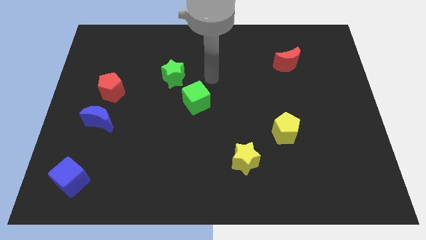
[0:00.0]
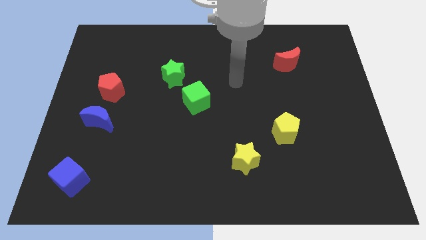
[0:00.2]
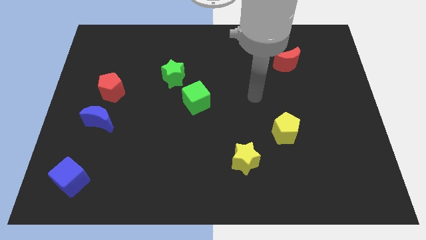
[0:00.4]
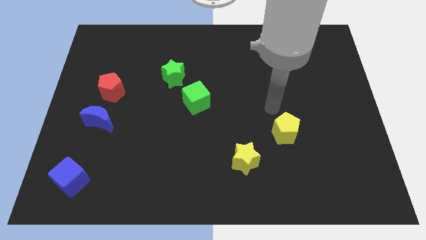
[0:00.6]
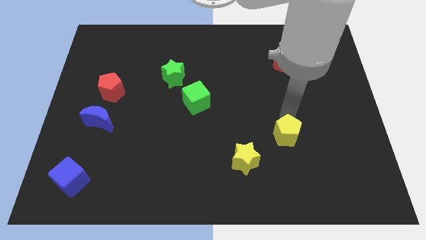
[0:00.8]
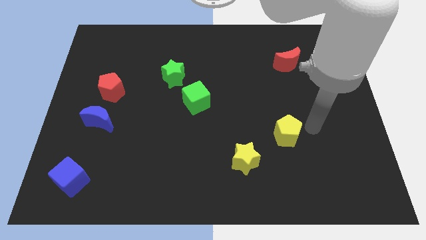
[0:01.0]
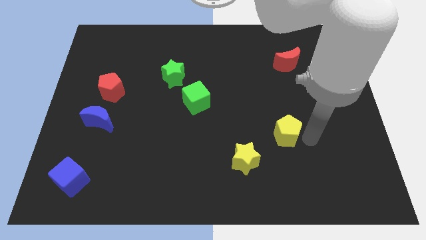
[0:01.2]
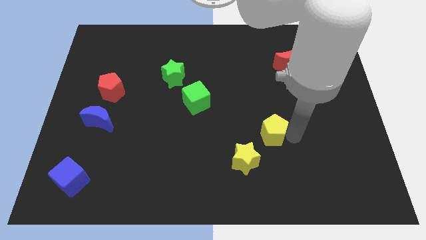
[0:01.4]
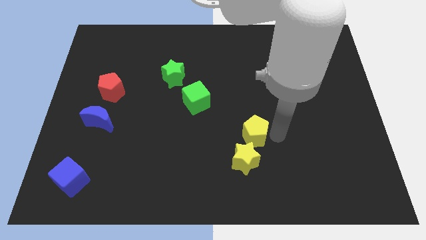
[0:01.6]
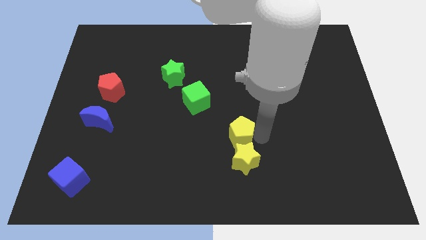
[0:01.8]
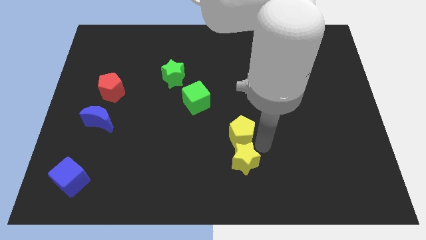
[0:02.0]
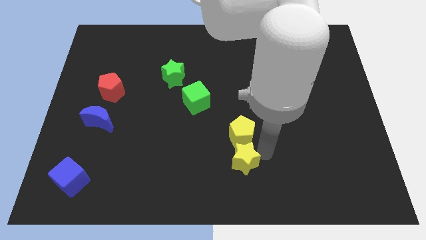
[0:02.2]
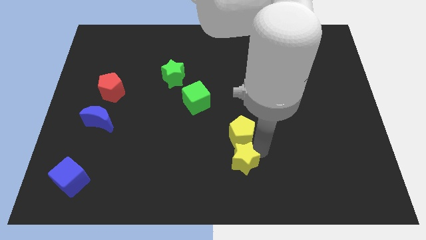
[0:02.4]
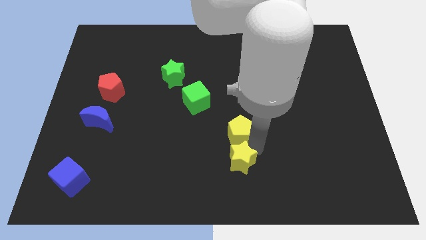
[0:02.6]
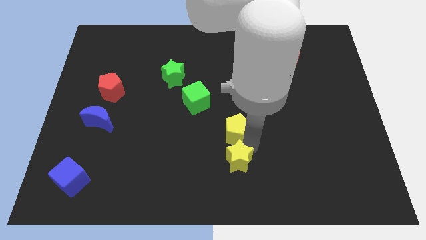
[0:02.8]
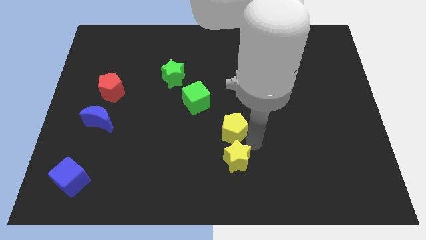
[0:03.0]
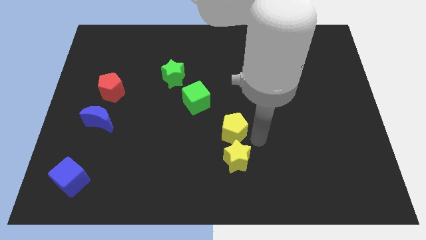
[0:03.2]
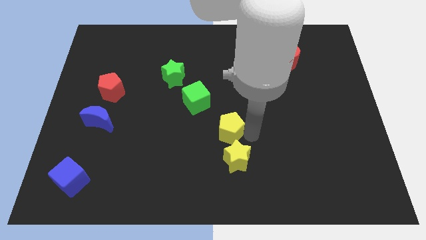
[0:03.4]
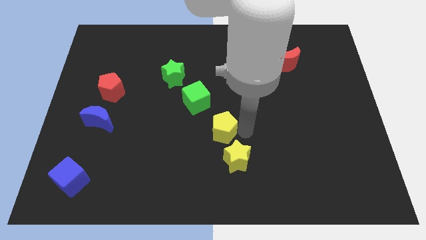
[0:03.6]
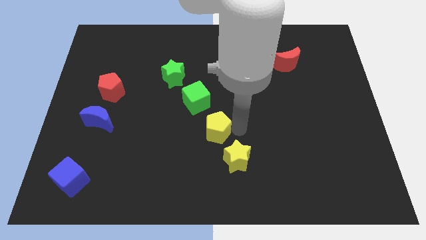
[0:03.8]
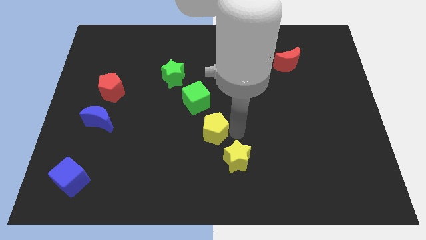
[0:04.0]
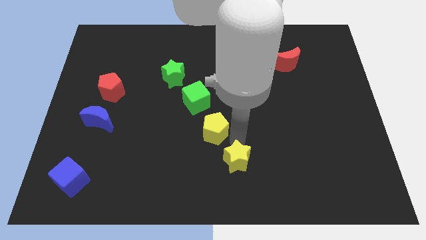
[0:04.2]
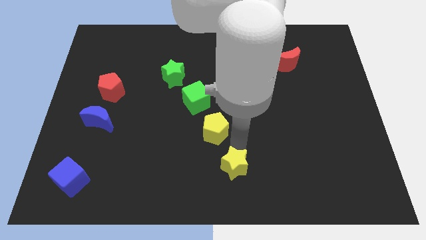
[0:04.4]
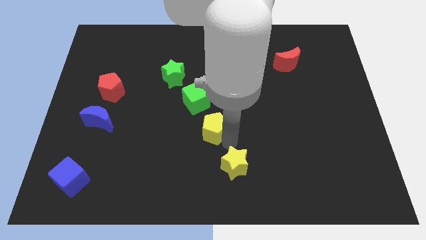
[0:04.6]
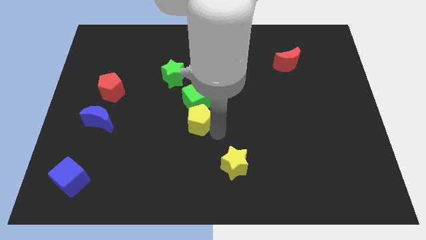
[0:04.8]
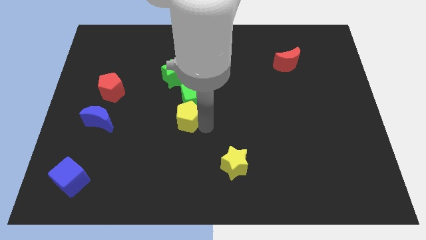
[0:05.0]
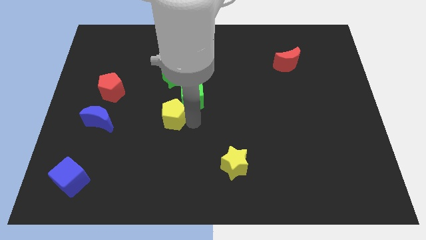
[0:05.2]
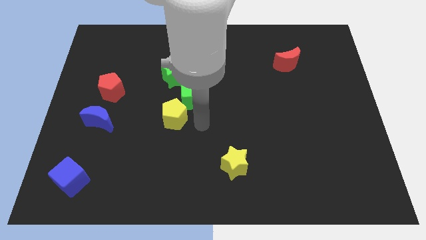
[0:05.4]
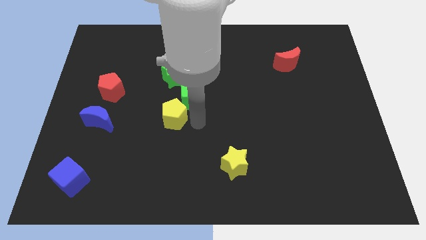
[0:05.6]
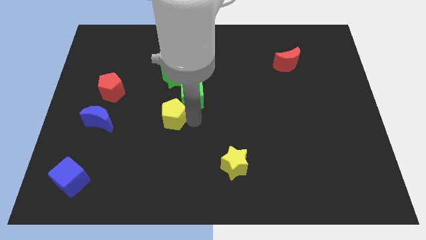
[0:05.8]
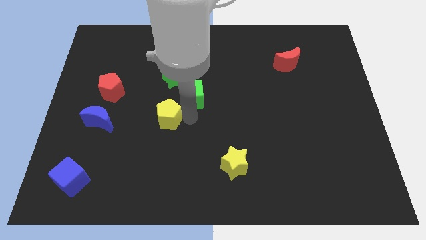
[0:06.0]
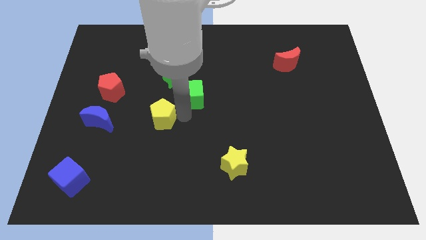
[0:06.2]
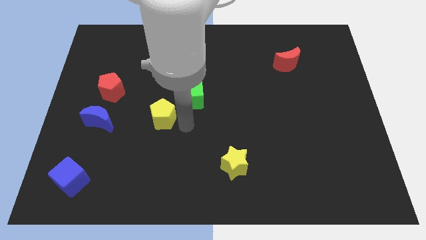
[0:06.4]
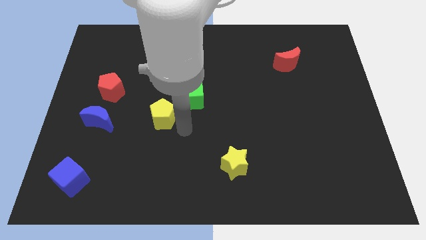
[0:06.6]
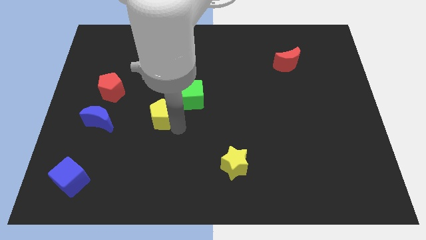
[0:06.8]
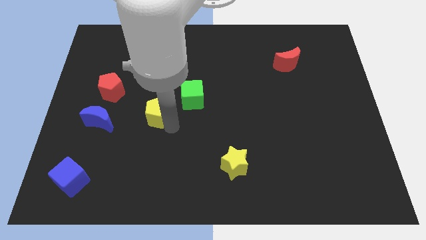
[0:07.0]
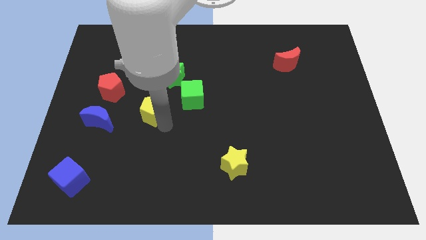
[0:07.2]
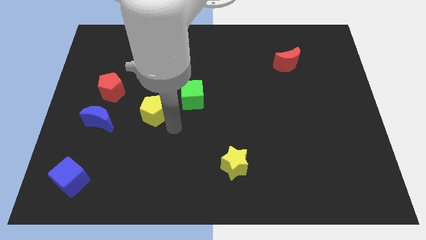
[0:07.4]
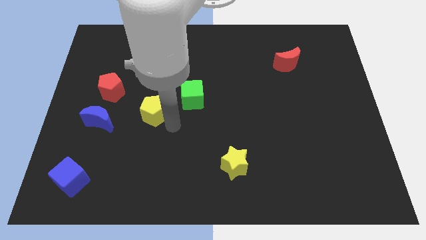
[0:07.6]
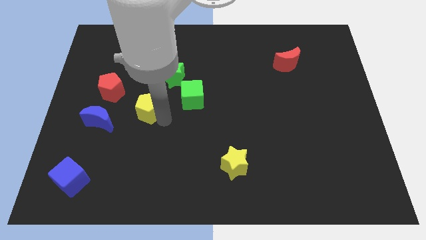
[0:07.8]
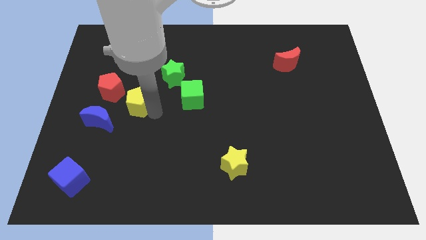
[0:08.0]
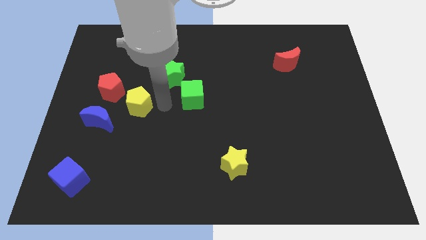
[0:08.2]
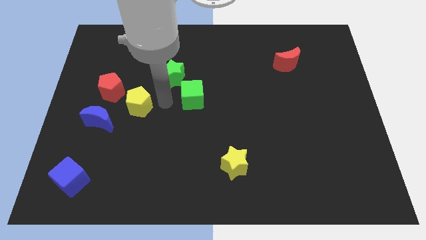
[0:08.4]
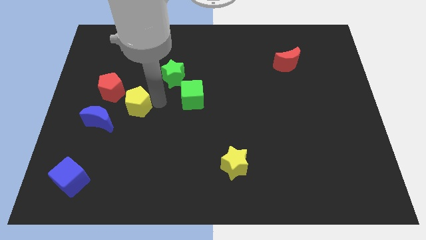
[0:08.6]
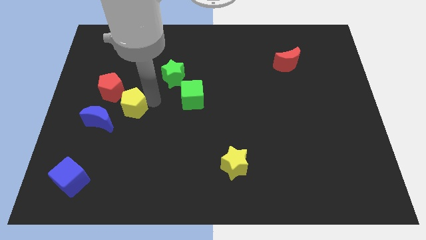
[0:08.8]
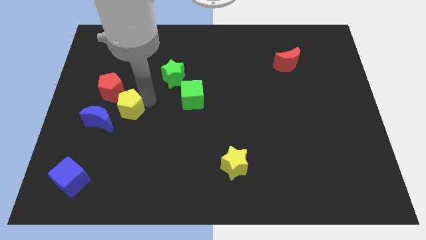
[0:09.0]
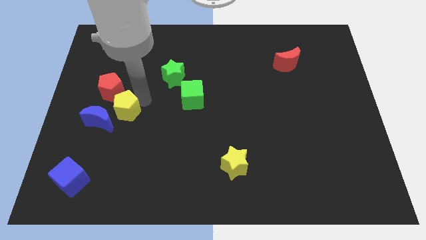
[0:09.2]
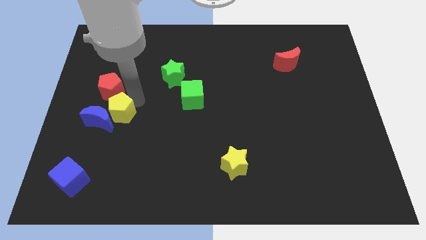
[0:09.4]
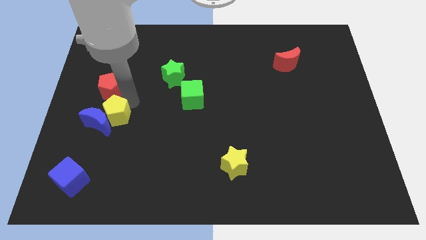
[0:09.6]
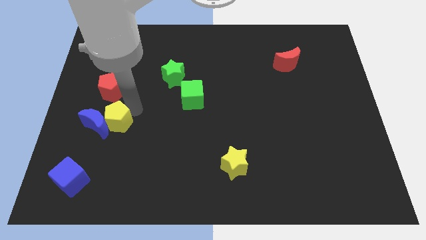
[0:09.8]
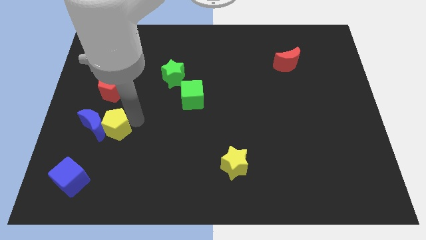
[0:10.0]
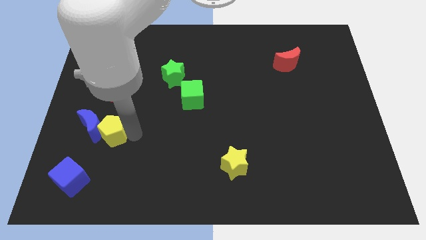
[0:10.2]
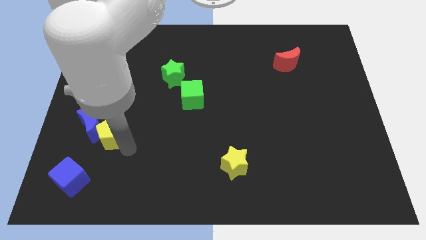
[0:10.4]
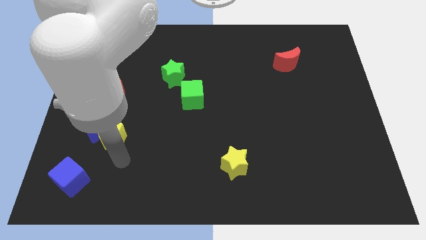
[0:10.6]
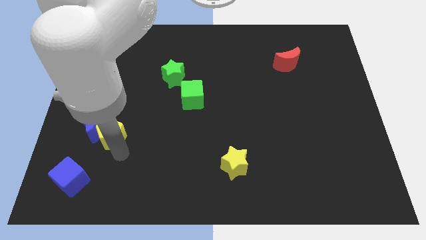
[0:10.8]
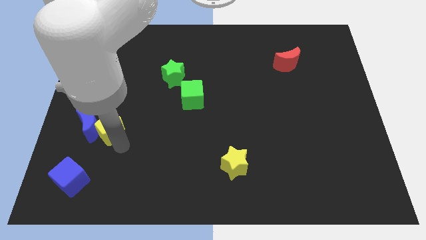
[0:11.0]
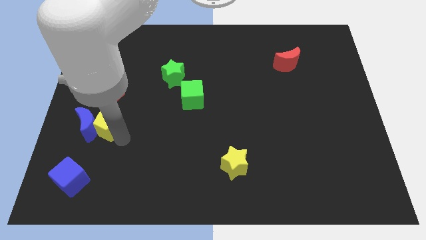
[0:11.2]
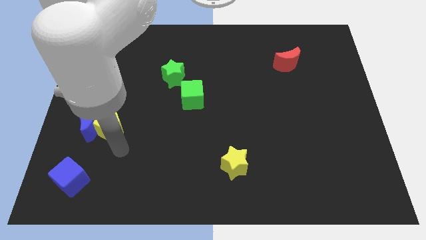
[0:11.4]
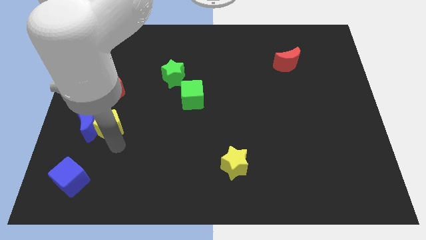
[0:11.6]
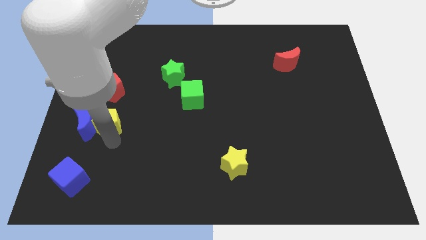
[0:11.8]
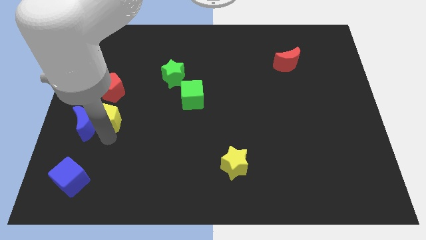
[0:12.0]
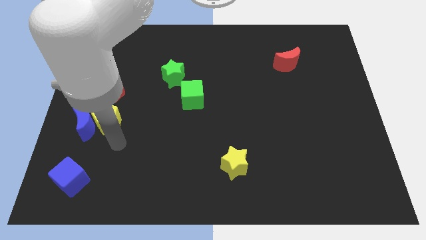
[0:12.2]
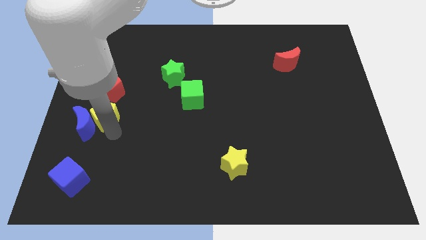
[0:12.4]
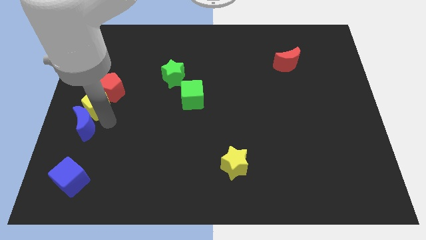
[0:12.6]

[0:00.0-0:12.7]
move the yellow pentagon to the left side

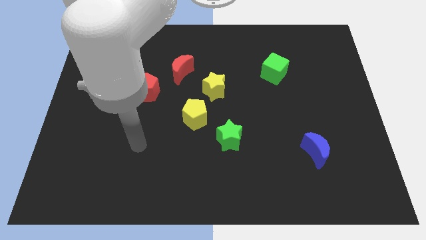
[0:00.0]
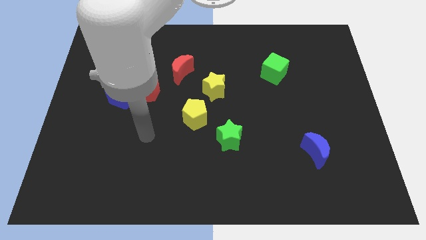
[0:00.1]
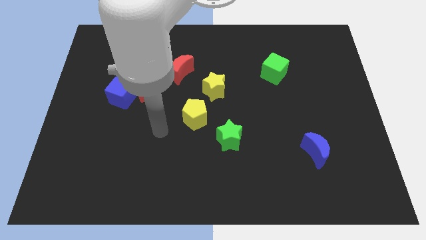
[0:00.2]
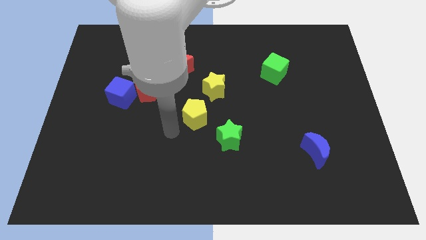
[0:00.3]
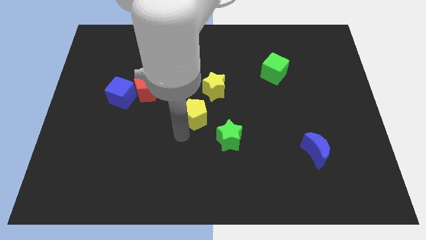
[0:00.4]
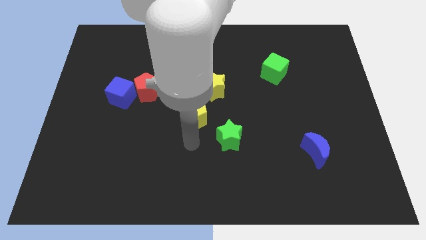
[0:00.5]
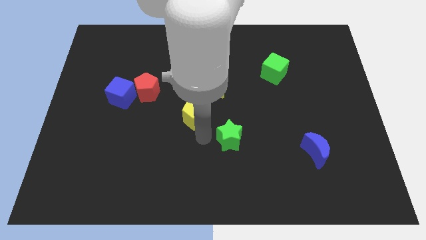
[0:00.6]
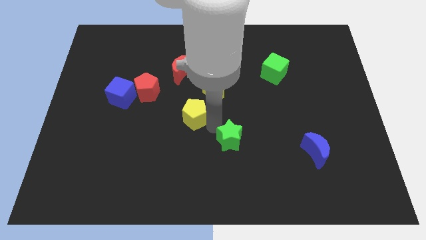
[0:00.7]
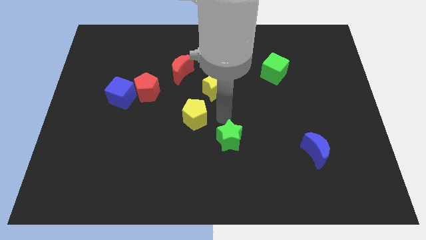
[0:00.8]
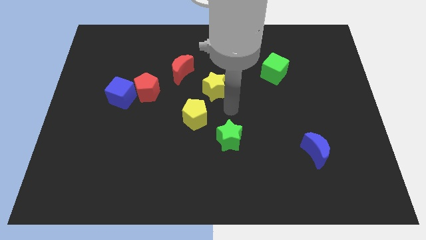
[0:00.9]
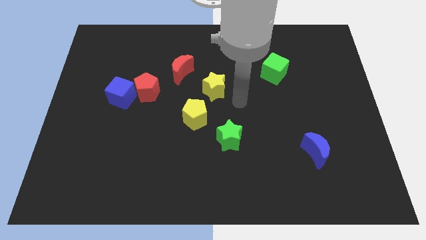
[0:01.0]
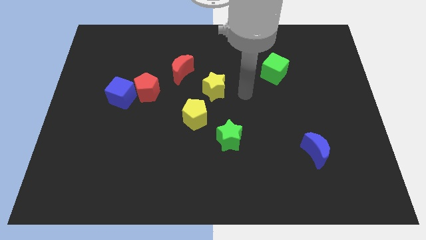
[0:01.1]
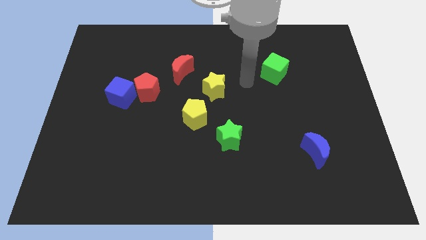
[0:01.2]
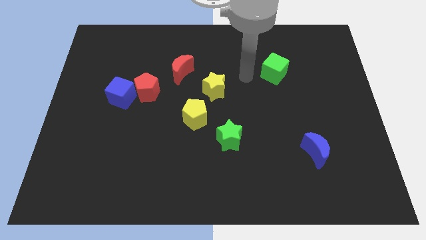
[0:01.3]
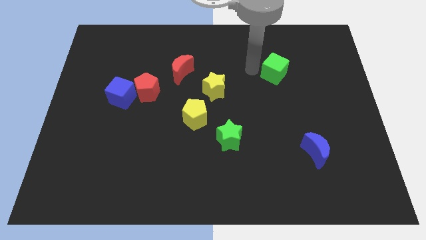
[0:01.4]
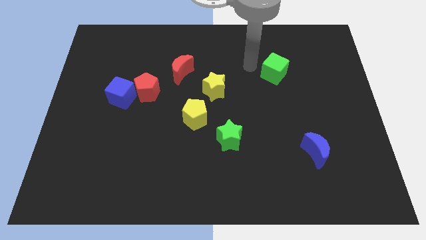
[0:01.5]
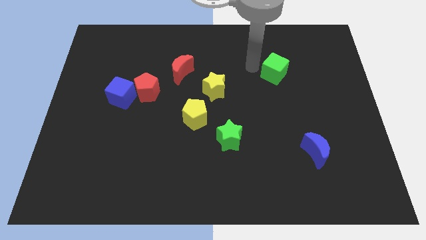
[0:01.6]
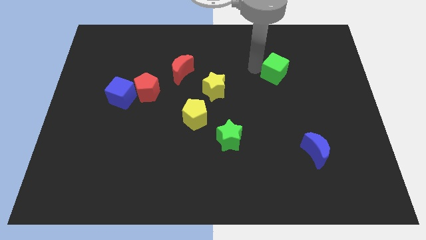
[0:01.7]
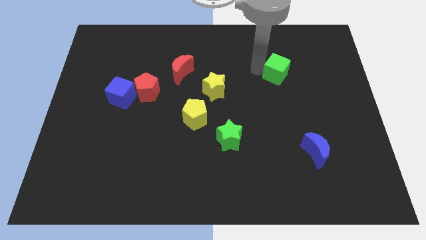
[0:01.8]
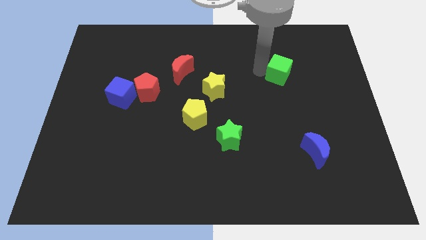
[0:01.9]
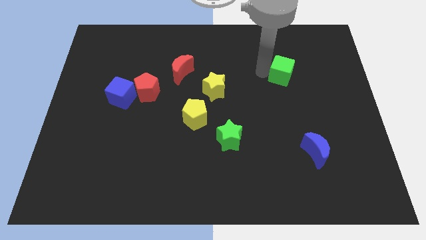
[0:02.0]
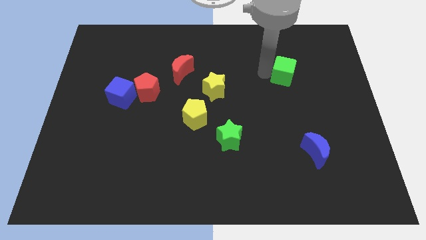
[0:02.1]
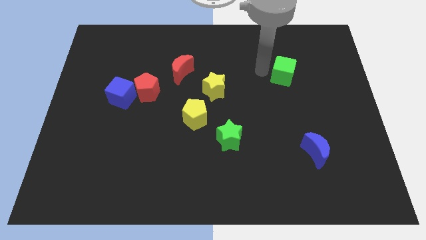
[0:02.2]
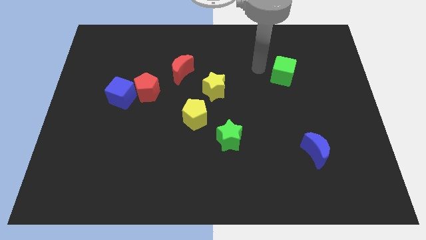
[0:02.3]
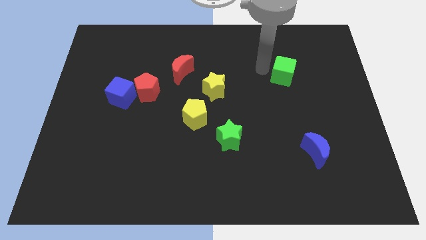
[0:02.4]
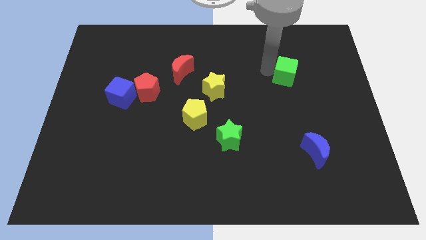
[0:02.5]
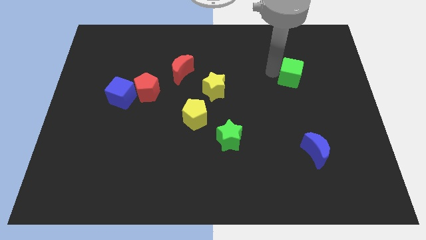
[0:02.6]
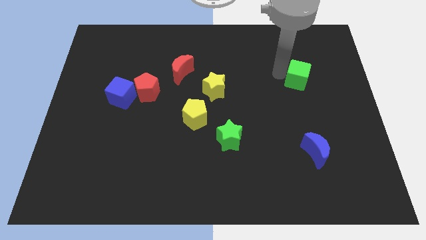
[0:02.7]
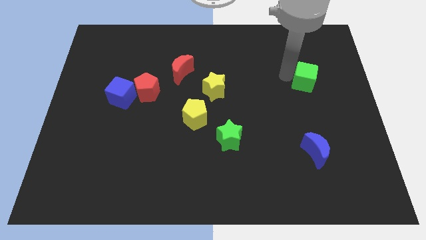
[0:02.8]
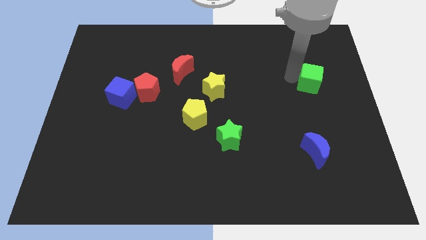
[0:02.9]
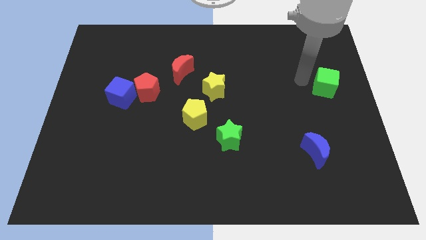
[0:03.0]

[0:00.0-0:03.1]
push the green cube to the center right
